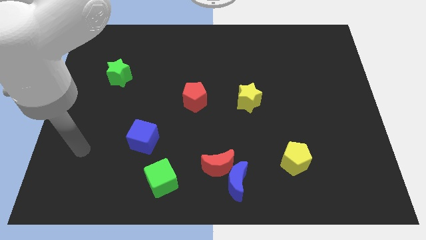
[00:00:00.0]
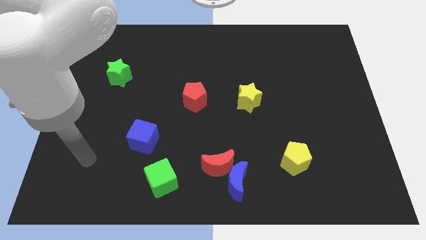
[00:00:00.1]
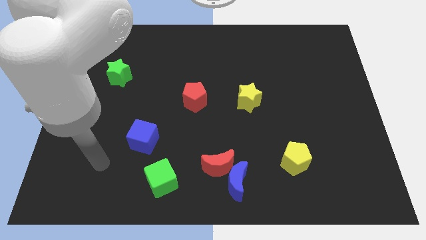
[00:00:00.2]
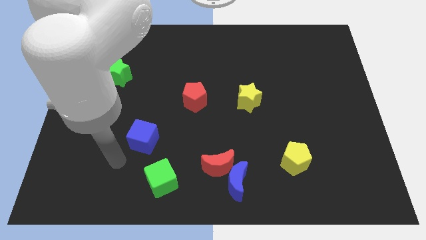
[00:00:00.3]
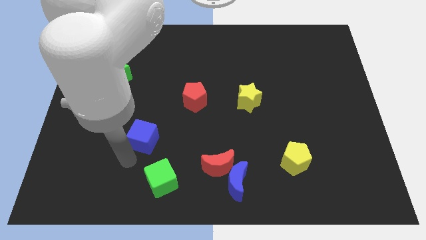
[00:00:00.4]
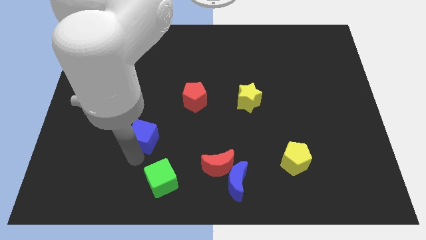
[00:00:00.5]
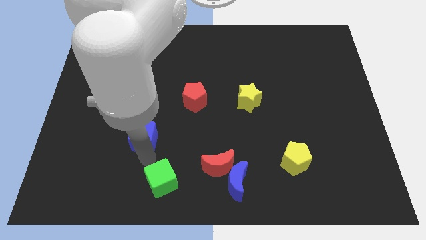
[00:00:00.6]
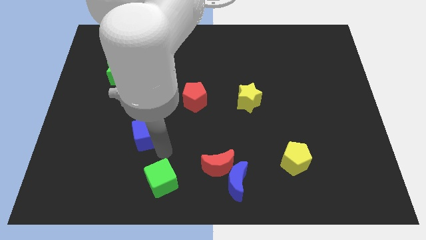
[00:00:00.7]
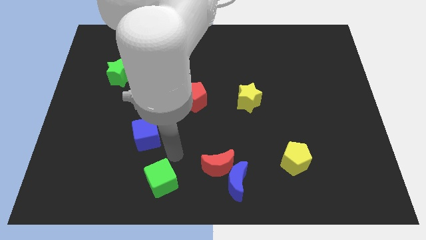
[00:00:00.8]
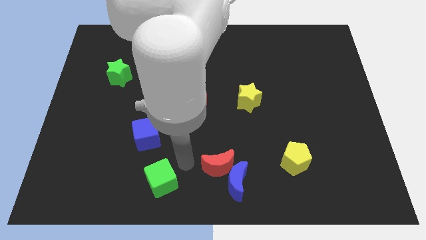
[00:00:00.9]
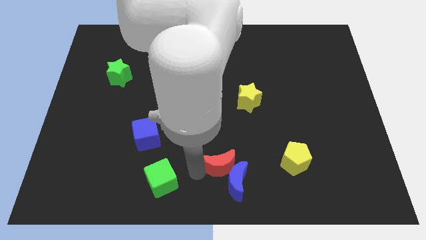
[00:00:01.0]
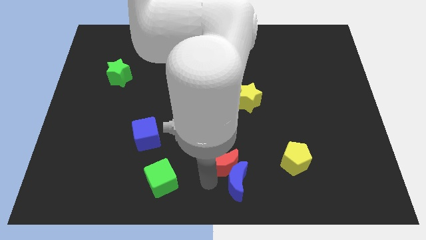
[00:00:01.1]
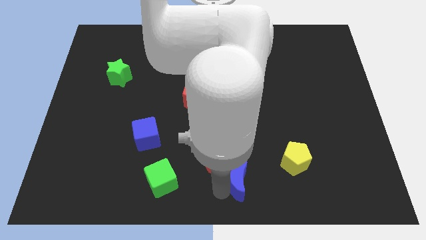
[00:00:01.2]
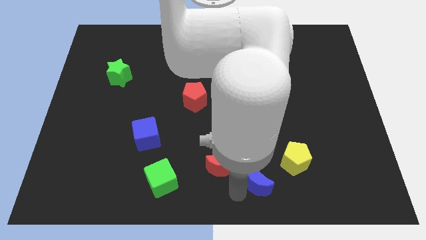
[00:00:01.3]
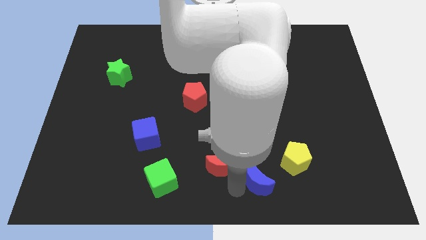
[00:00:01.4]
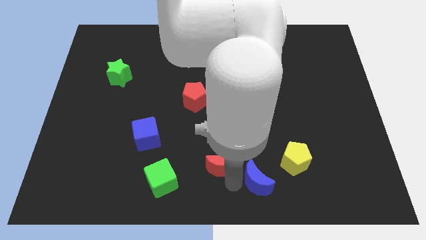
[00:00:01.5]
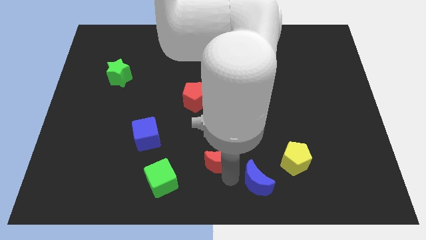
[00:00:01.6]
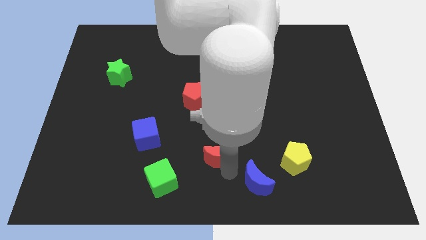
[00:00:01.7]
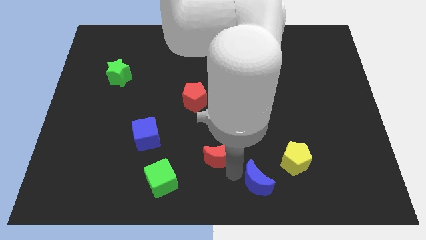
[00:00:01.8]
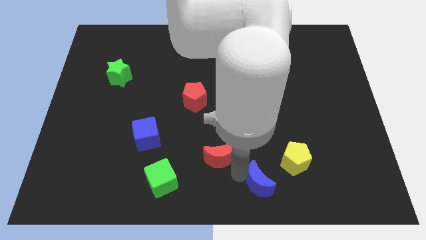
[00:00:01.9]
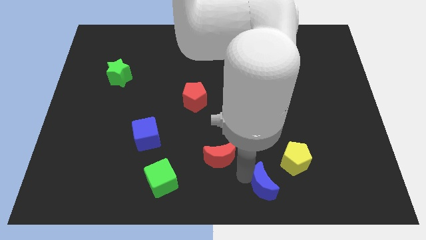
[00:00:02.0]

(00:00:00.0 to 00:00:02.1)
pull the red moon apart from the blue moon

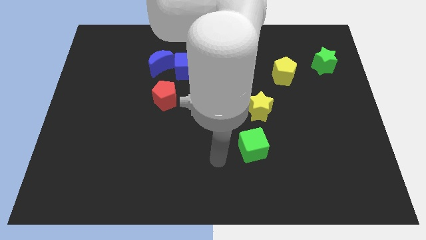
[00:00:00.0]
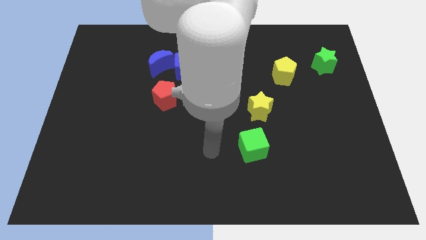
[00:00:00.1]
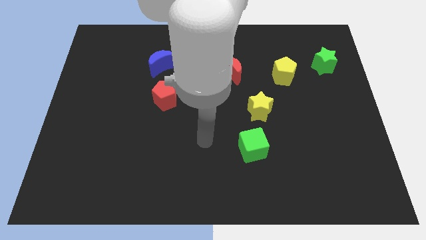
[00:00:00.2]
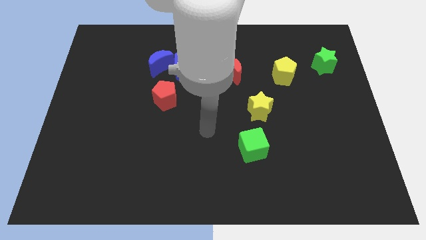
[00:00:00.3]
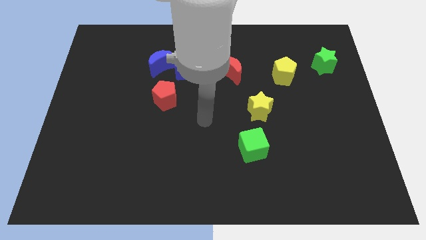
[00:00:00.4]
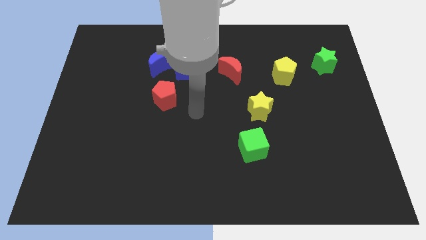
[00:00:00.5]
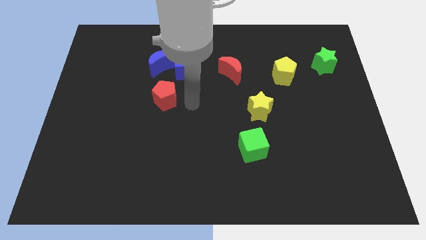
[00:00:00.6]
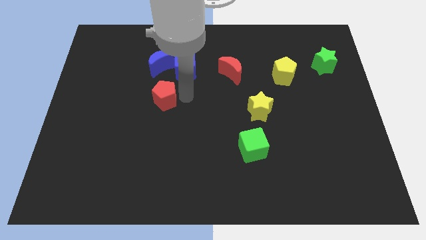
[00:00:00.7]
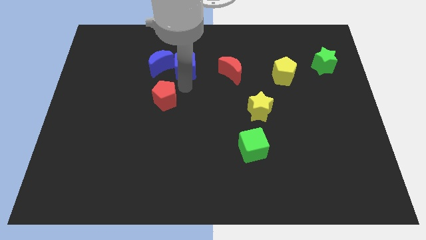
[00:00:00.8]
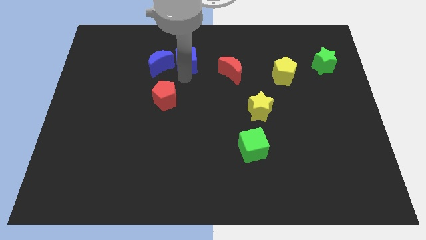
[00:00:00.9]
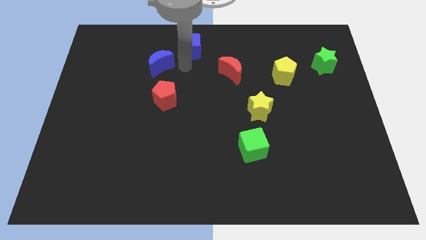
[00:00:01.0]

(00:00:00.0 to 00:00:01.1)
pull the blue moon apart from the blue cube

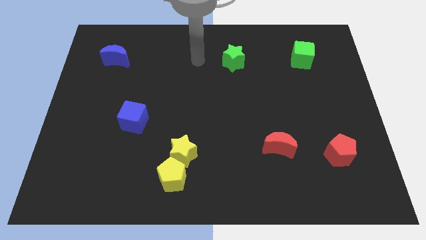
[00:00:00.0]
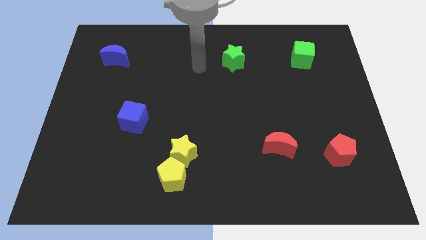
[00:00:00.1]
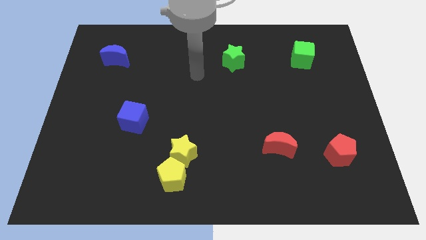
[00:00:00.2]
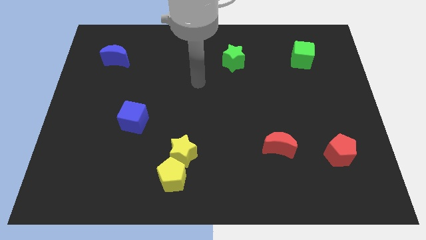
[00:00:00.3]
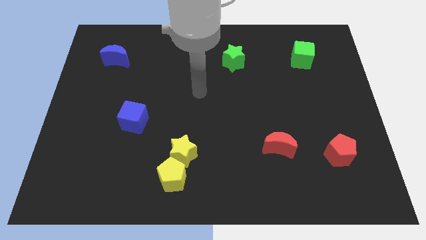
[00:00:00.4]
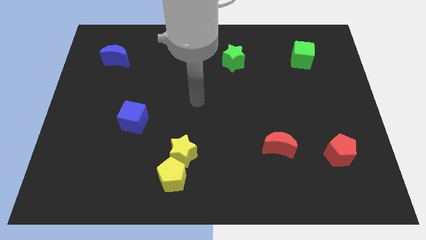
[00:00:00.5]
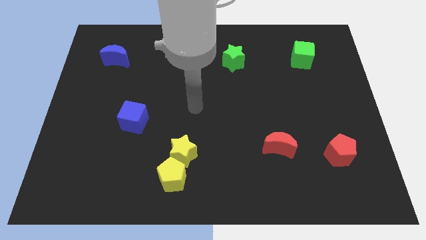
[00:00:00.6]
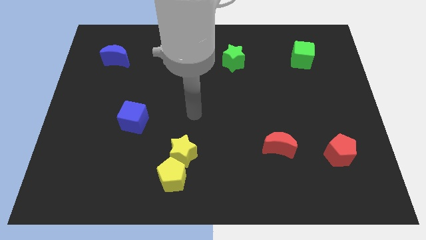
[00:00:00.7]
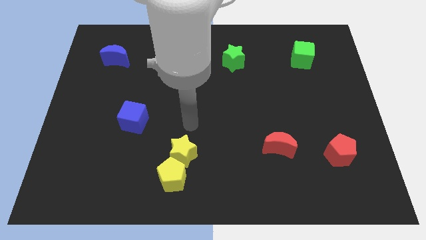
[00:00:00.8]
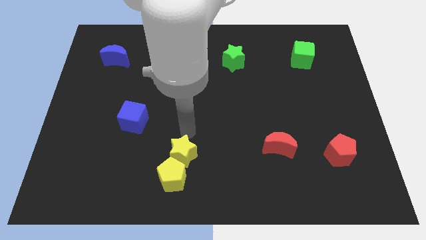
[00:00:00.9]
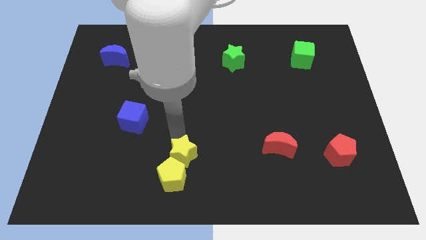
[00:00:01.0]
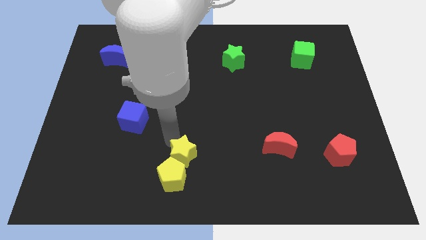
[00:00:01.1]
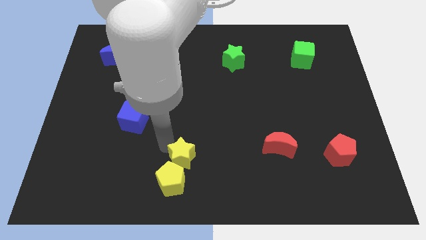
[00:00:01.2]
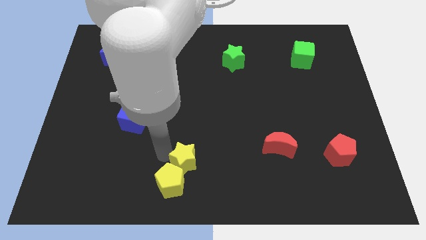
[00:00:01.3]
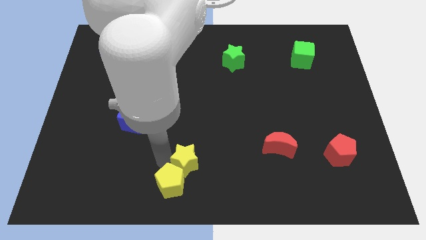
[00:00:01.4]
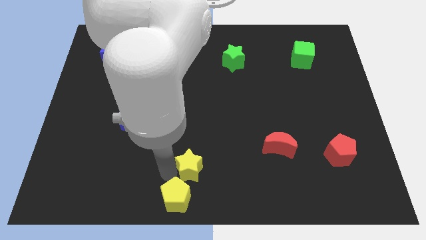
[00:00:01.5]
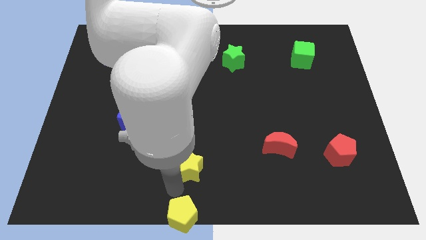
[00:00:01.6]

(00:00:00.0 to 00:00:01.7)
pull the yellow star apart from the yellow pentagon

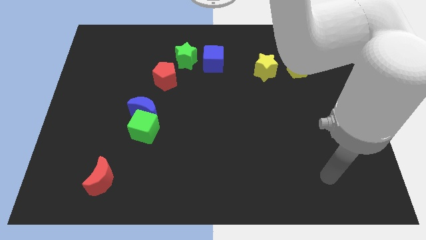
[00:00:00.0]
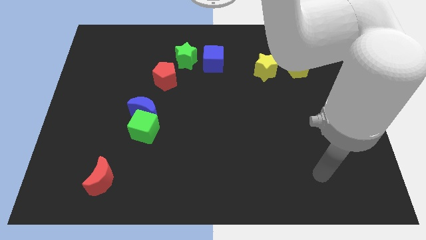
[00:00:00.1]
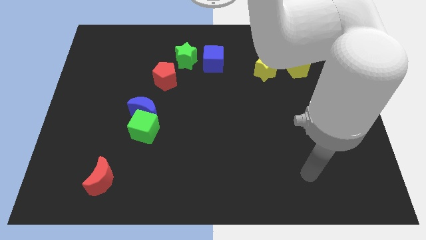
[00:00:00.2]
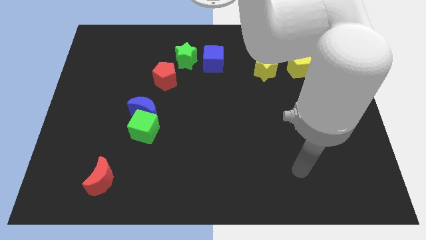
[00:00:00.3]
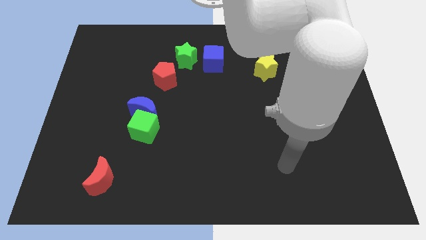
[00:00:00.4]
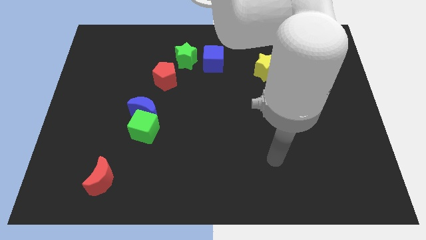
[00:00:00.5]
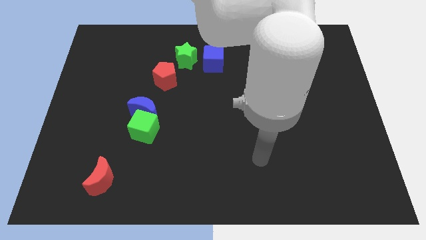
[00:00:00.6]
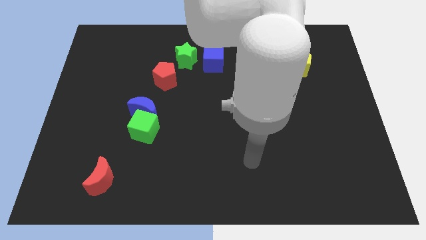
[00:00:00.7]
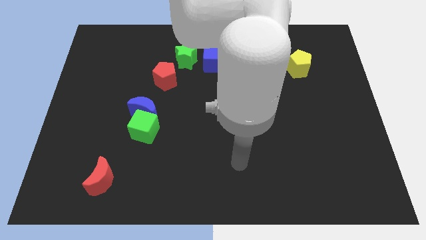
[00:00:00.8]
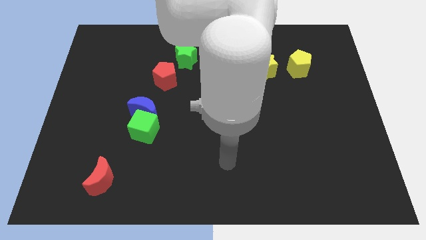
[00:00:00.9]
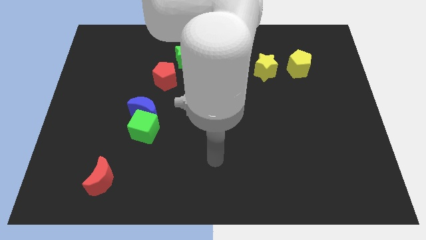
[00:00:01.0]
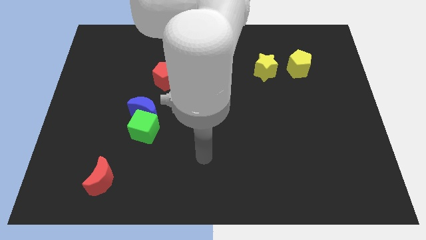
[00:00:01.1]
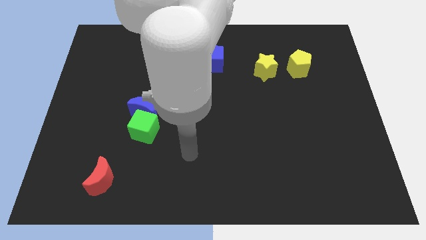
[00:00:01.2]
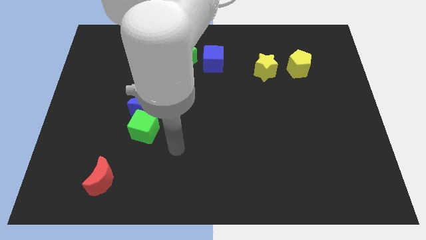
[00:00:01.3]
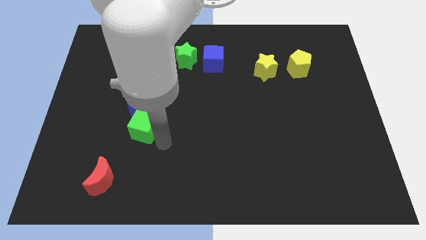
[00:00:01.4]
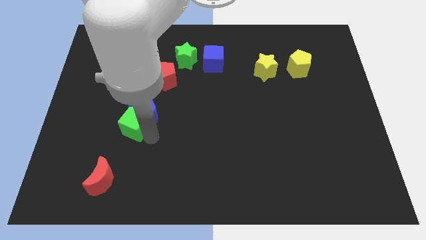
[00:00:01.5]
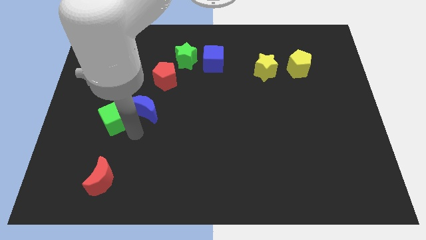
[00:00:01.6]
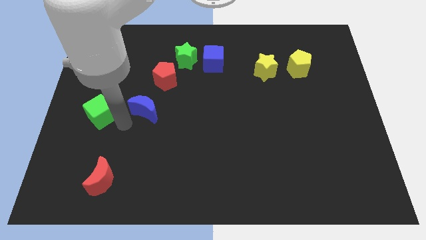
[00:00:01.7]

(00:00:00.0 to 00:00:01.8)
pull the blue moon apart from the green cube

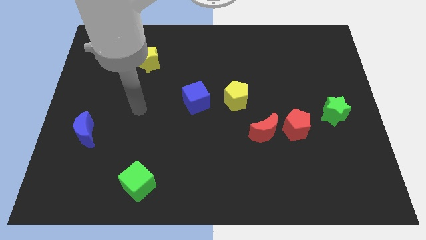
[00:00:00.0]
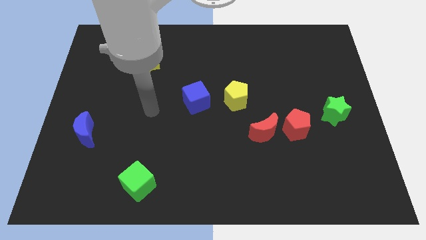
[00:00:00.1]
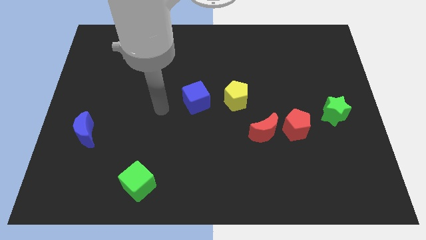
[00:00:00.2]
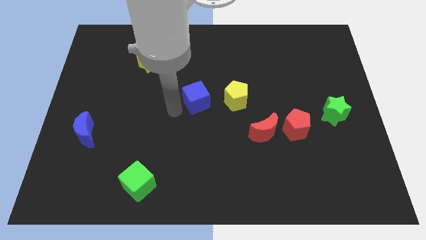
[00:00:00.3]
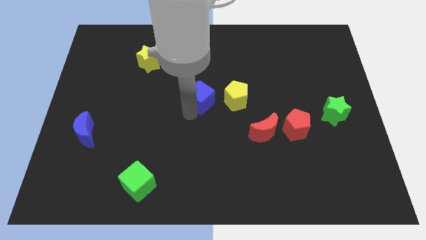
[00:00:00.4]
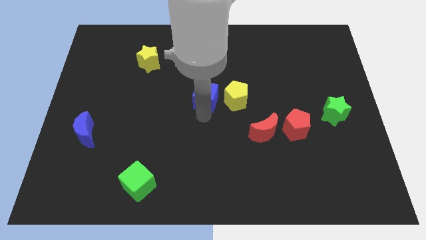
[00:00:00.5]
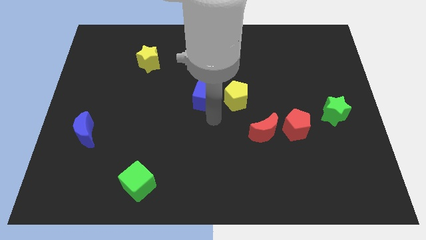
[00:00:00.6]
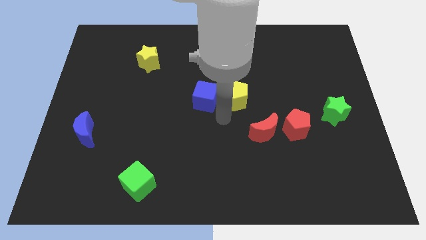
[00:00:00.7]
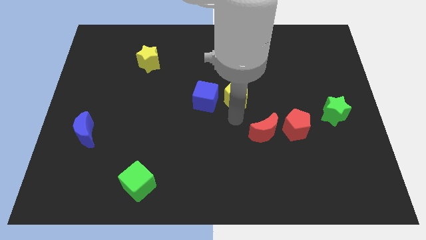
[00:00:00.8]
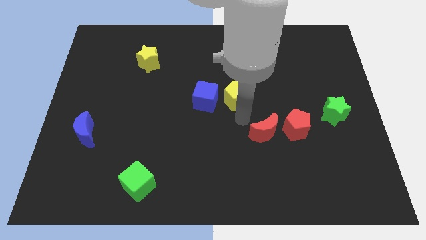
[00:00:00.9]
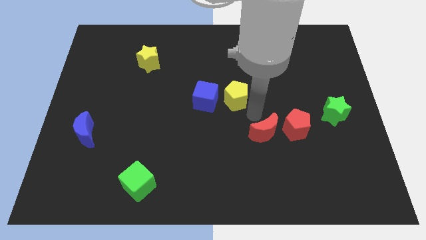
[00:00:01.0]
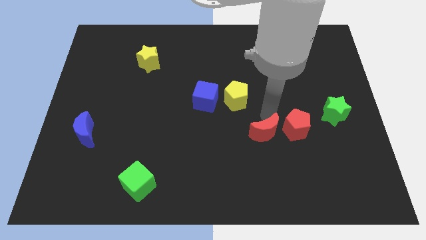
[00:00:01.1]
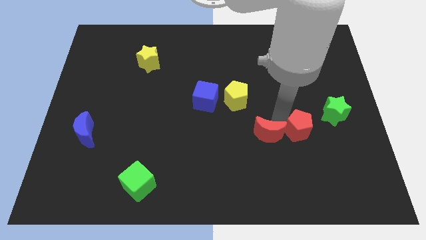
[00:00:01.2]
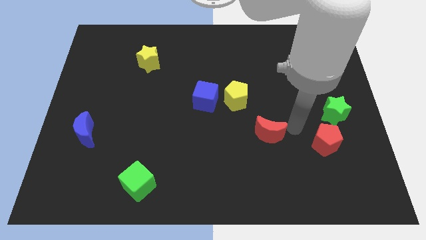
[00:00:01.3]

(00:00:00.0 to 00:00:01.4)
separate the red moon from the red pentagon

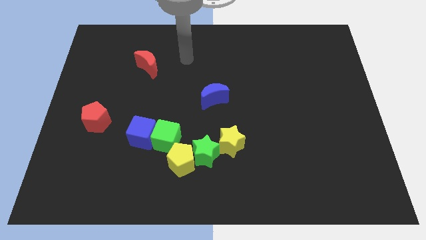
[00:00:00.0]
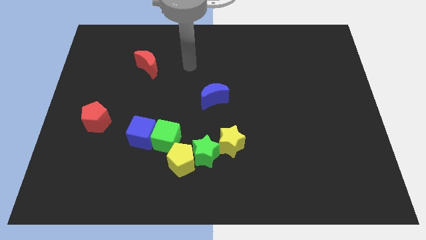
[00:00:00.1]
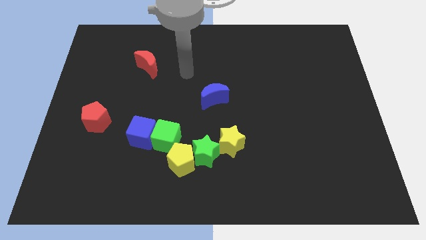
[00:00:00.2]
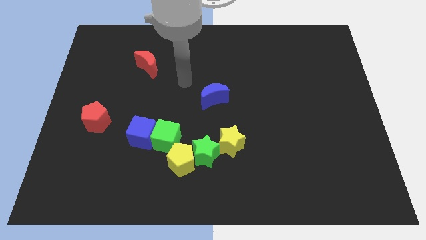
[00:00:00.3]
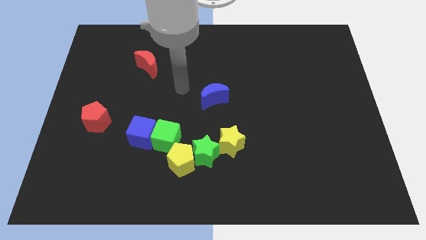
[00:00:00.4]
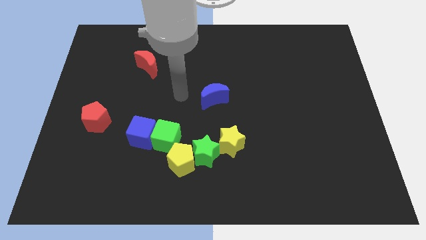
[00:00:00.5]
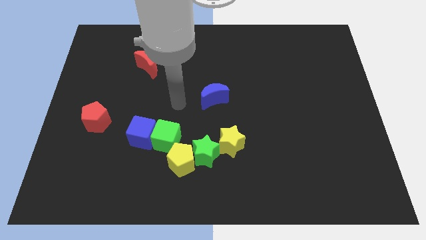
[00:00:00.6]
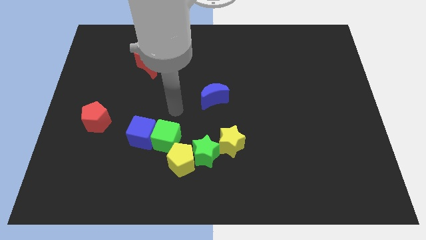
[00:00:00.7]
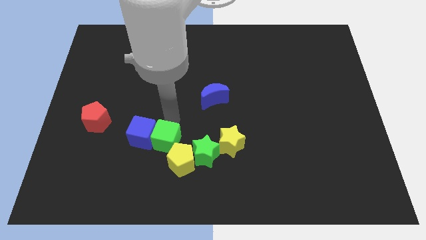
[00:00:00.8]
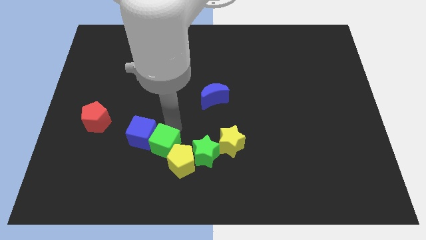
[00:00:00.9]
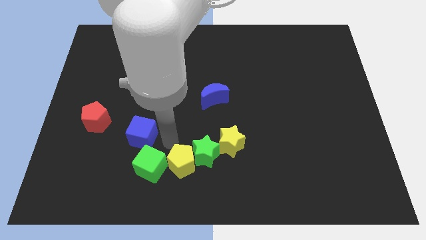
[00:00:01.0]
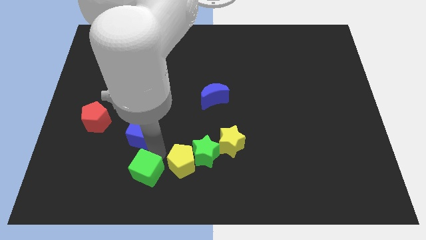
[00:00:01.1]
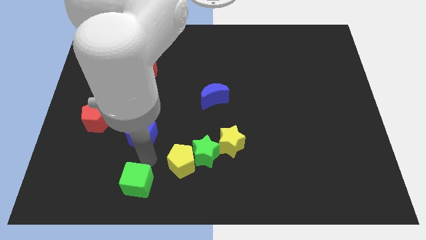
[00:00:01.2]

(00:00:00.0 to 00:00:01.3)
pull the blue cube apart from the green cube
